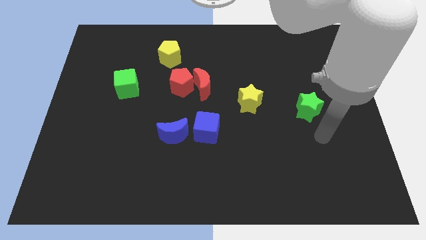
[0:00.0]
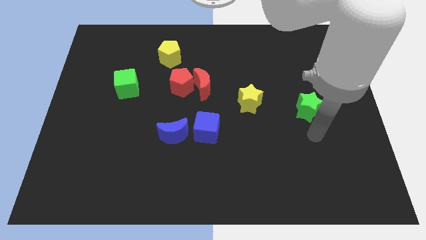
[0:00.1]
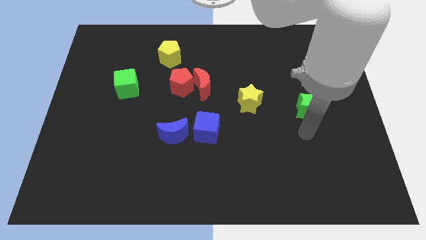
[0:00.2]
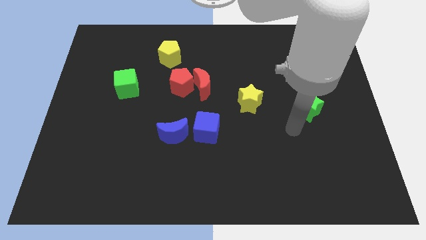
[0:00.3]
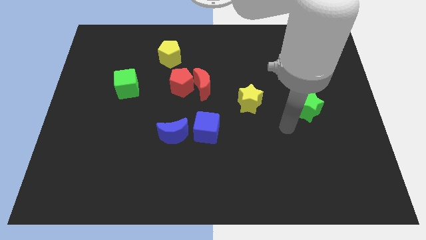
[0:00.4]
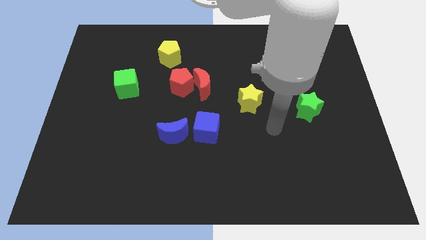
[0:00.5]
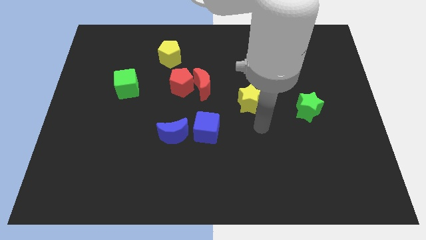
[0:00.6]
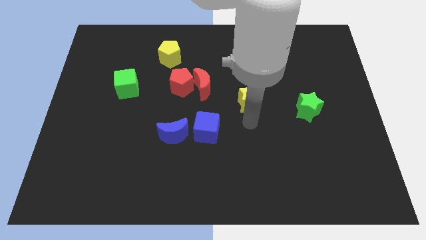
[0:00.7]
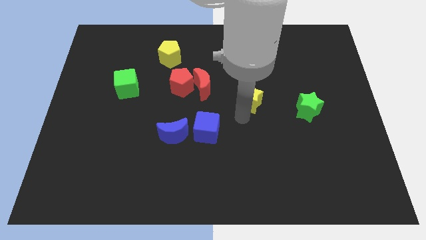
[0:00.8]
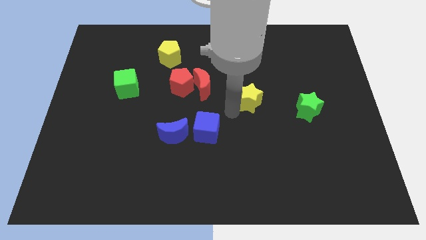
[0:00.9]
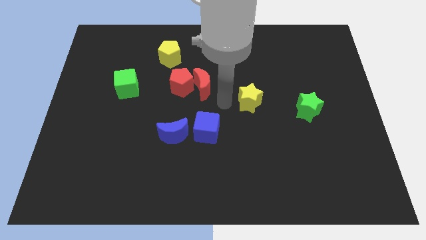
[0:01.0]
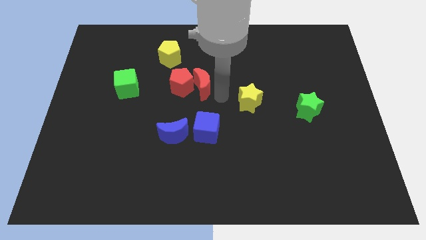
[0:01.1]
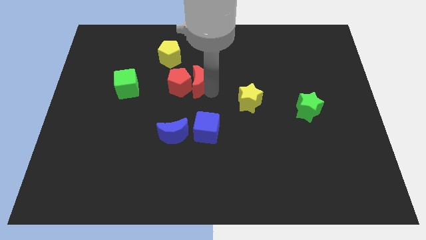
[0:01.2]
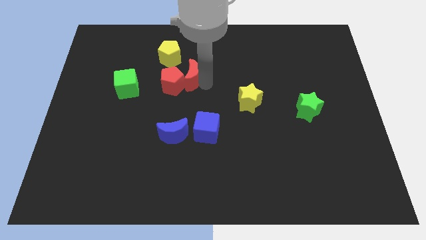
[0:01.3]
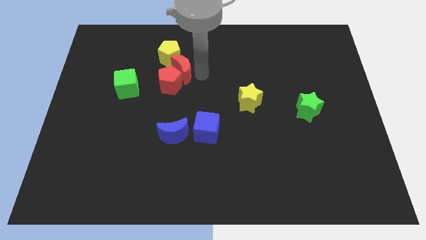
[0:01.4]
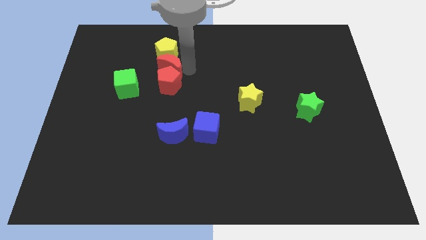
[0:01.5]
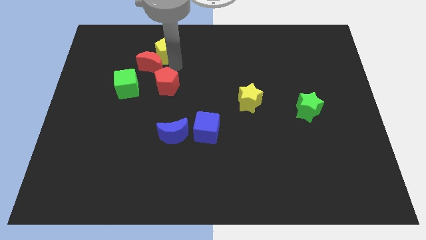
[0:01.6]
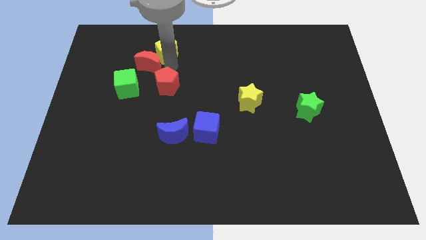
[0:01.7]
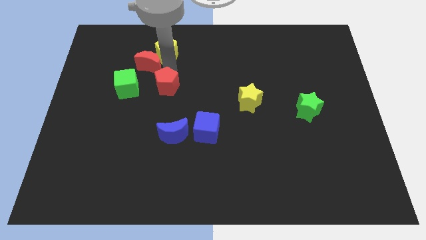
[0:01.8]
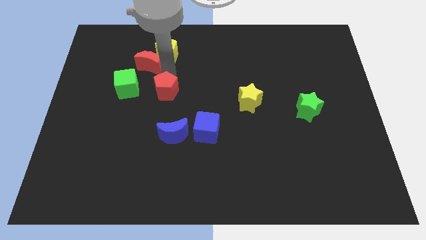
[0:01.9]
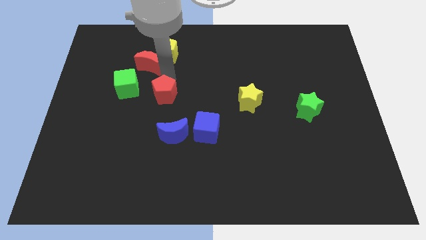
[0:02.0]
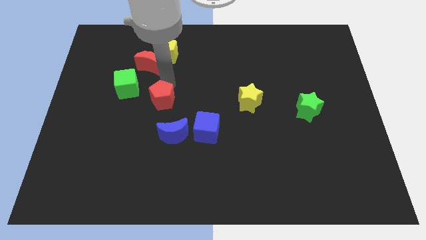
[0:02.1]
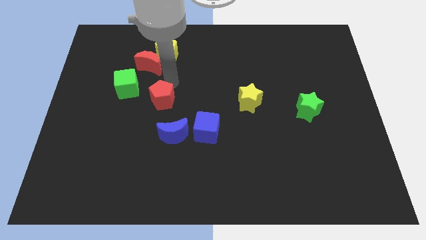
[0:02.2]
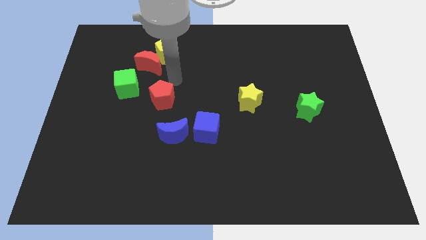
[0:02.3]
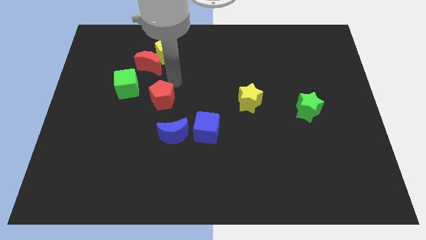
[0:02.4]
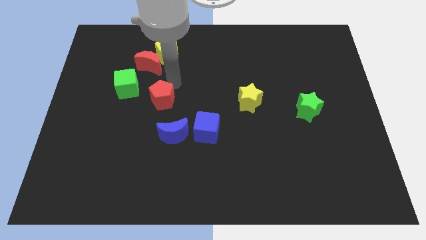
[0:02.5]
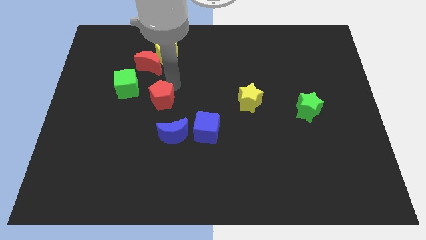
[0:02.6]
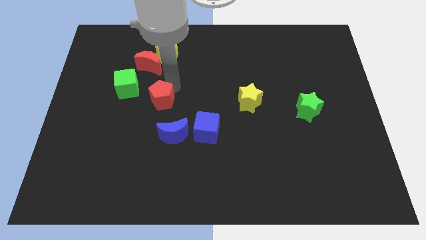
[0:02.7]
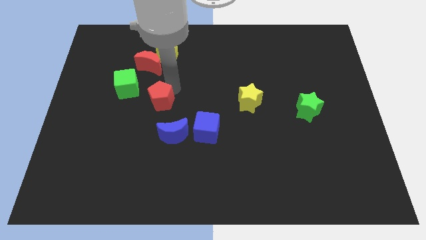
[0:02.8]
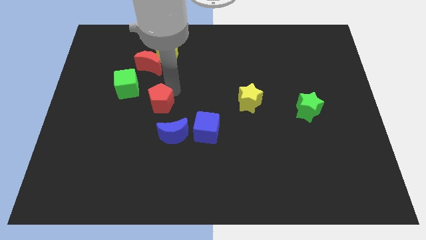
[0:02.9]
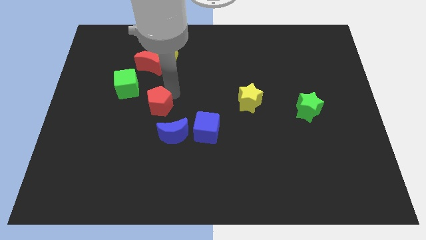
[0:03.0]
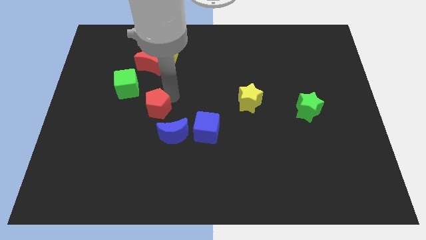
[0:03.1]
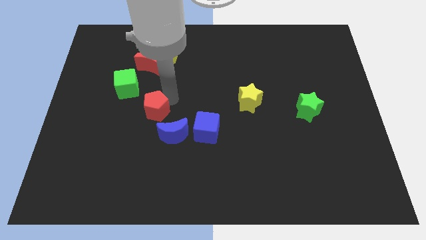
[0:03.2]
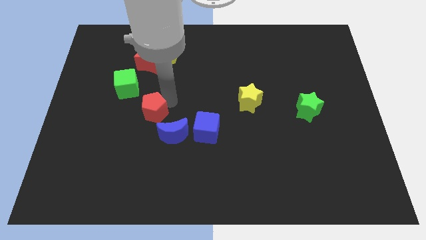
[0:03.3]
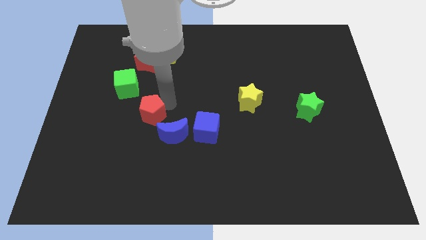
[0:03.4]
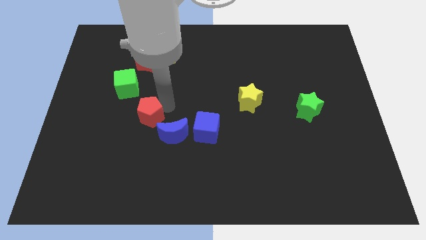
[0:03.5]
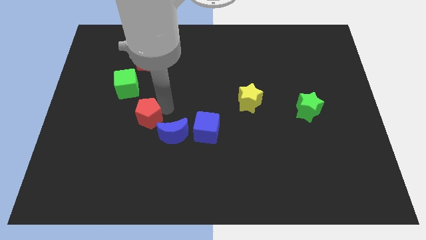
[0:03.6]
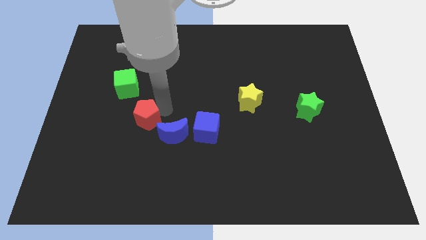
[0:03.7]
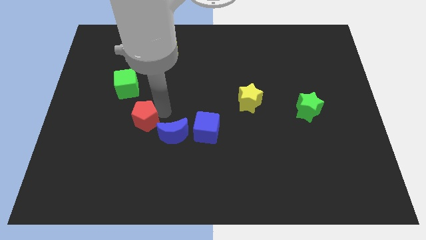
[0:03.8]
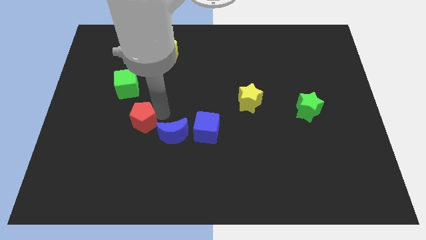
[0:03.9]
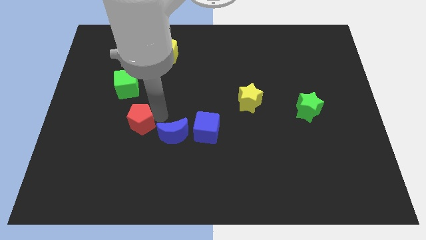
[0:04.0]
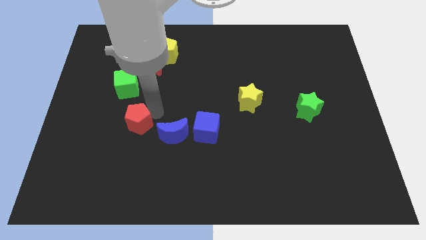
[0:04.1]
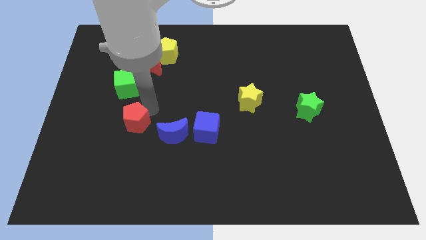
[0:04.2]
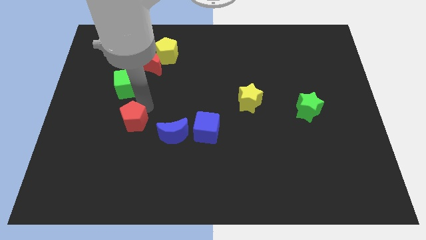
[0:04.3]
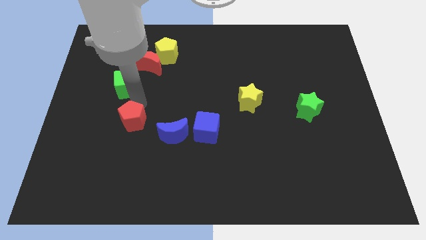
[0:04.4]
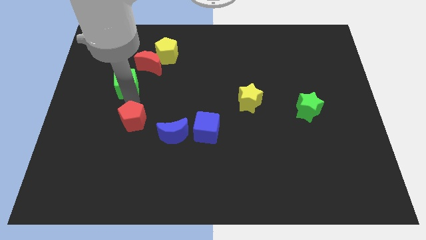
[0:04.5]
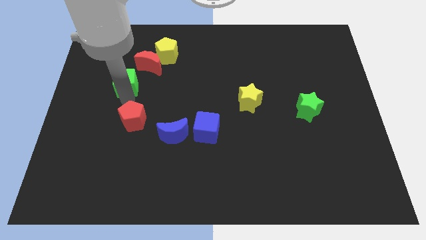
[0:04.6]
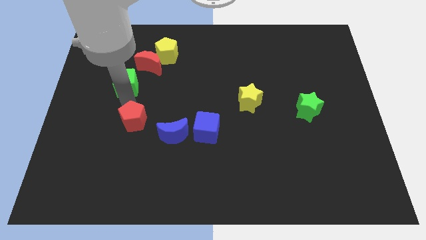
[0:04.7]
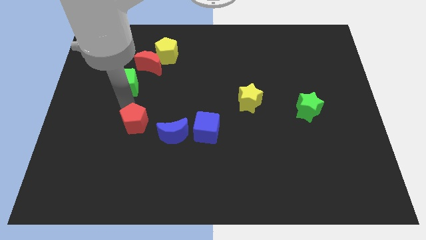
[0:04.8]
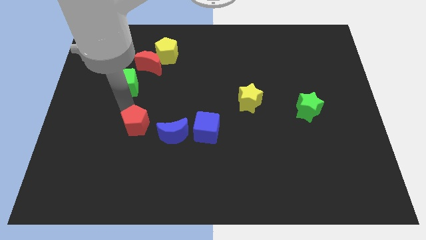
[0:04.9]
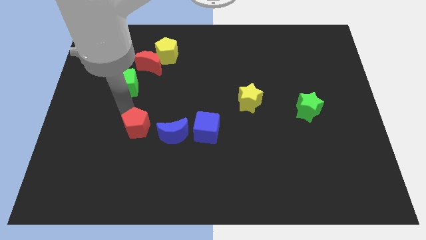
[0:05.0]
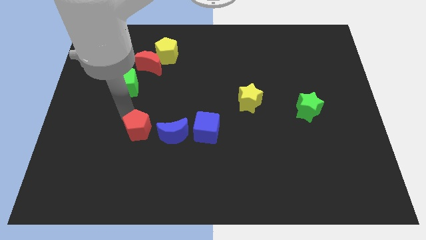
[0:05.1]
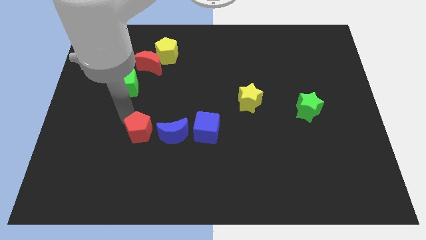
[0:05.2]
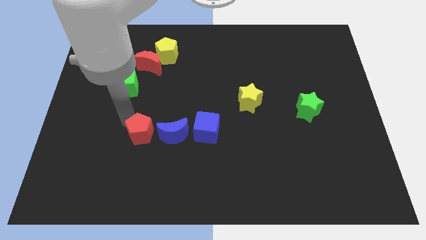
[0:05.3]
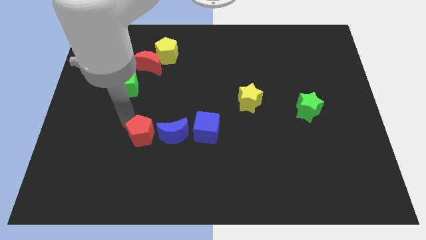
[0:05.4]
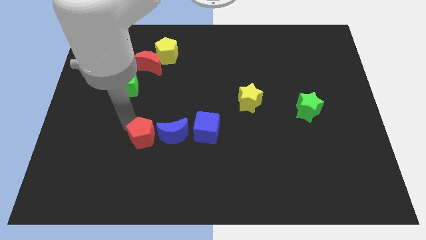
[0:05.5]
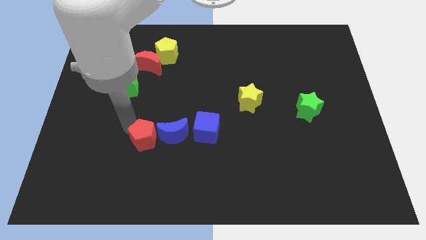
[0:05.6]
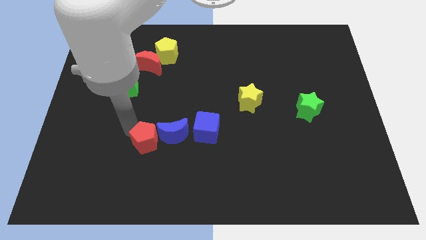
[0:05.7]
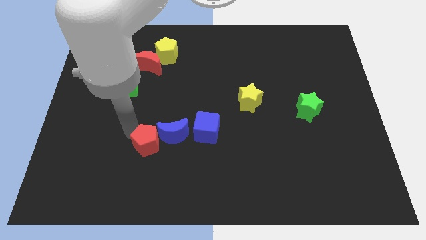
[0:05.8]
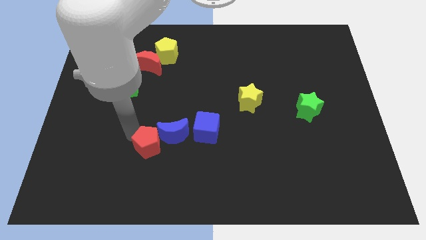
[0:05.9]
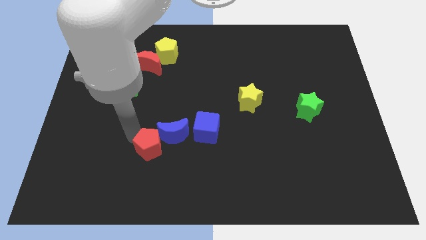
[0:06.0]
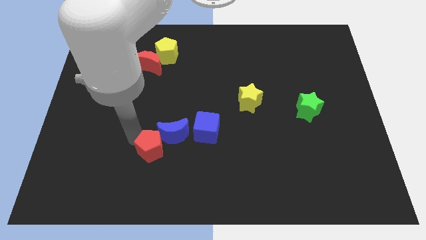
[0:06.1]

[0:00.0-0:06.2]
put the red pentagon to the bottom of the blue moon
